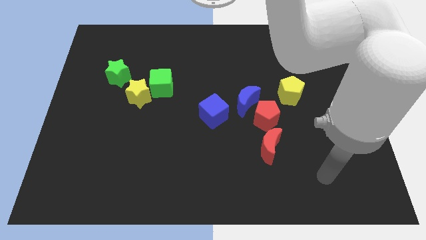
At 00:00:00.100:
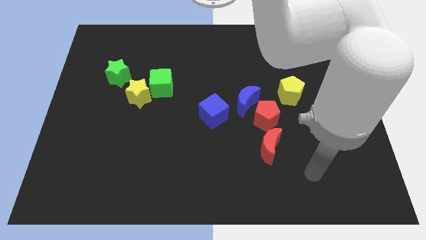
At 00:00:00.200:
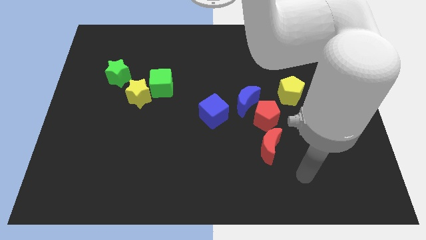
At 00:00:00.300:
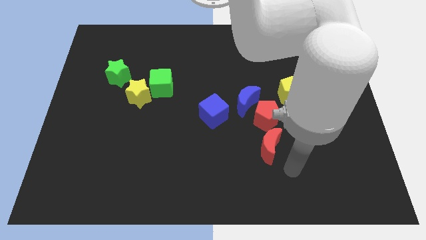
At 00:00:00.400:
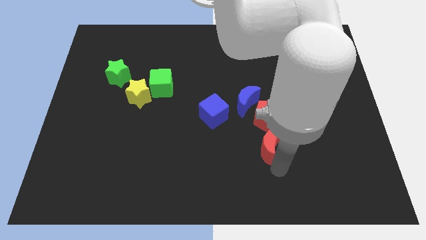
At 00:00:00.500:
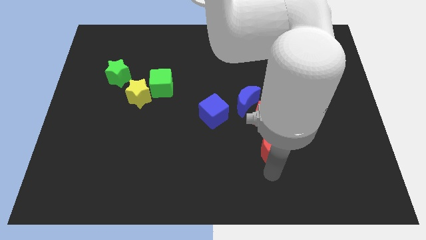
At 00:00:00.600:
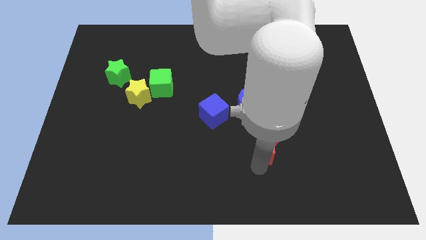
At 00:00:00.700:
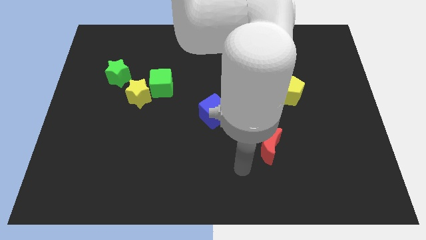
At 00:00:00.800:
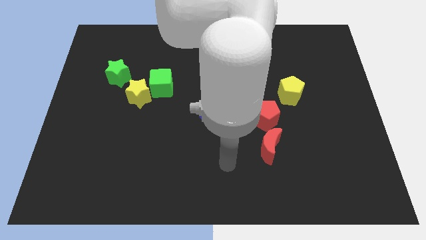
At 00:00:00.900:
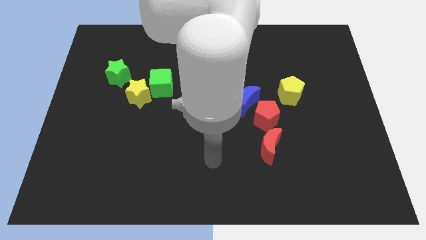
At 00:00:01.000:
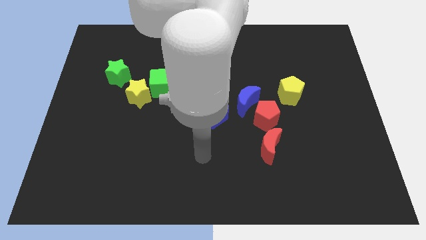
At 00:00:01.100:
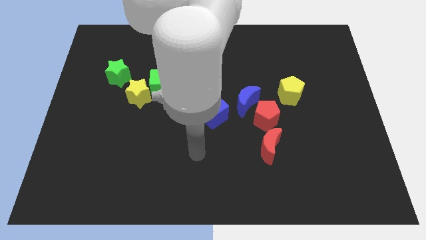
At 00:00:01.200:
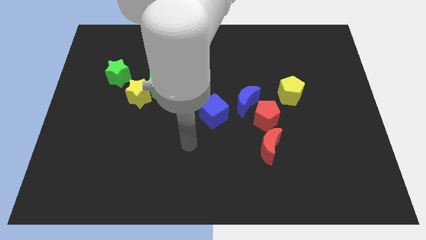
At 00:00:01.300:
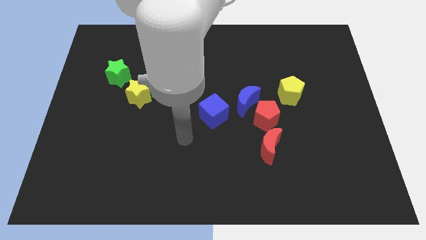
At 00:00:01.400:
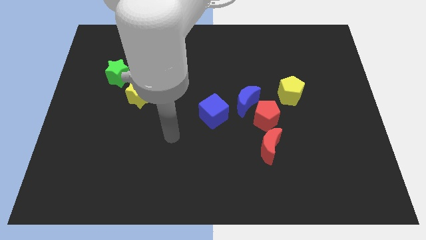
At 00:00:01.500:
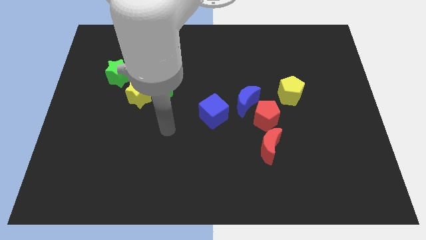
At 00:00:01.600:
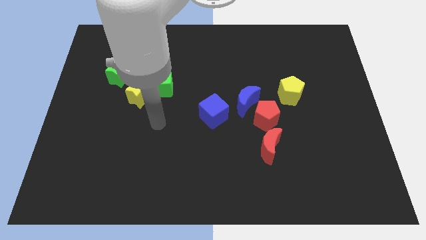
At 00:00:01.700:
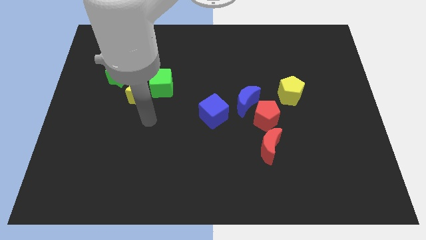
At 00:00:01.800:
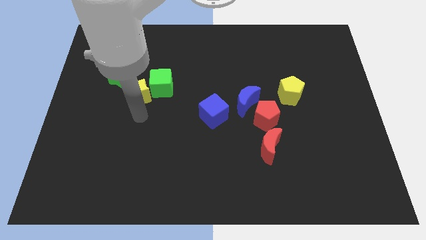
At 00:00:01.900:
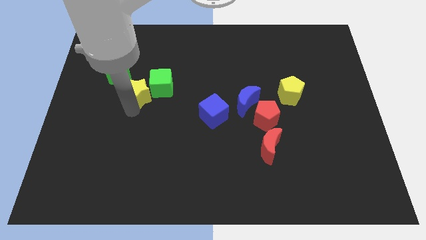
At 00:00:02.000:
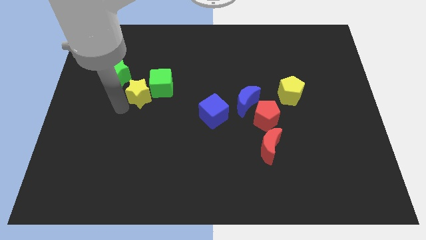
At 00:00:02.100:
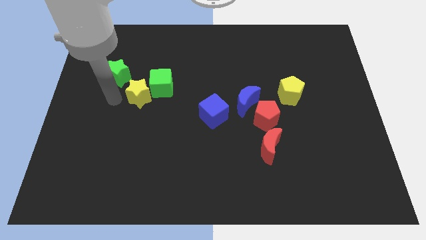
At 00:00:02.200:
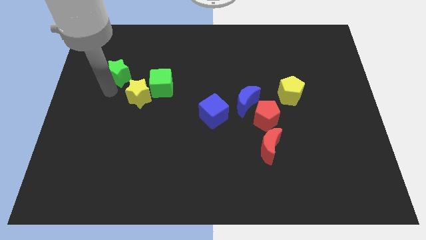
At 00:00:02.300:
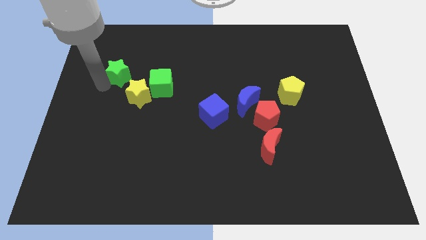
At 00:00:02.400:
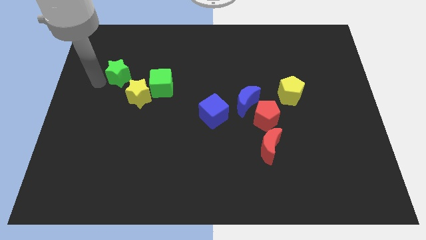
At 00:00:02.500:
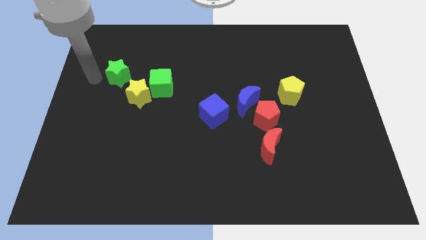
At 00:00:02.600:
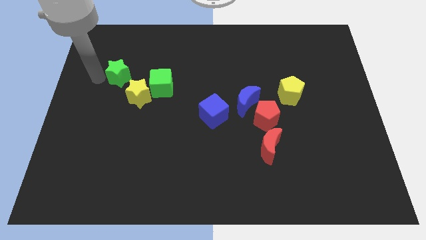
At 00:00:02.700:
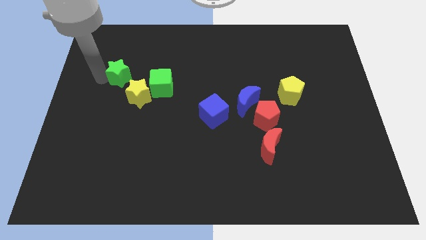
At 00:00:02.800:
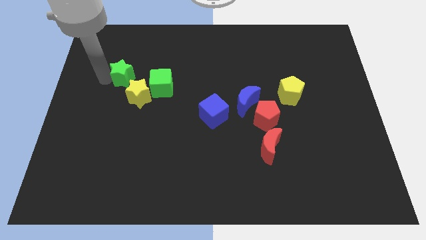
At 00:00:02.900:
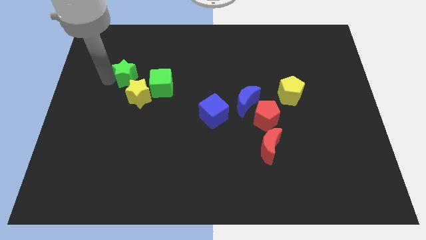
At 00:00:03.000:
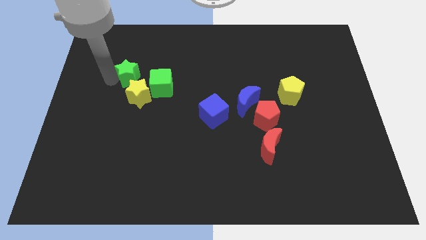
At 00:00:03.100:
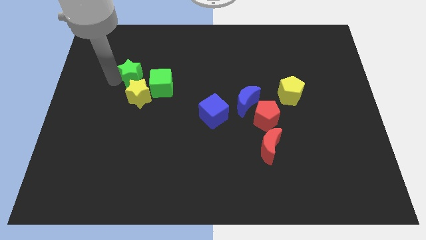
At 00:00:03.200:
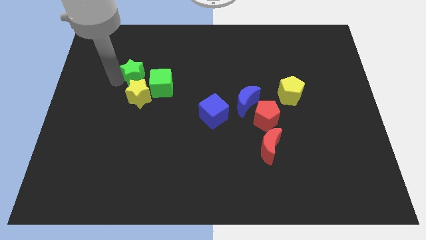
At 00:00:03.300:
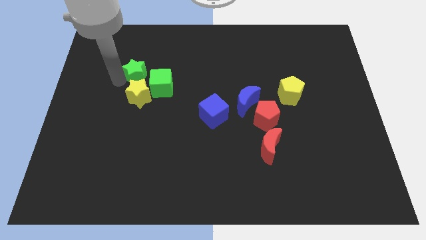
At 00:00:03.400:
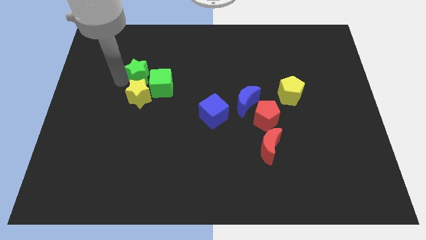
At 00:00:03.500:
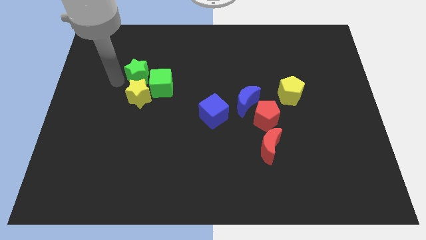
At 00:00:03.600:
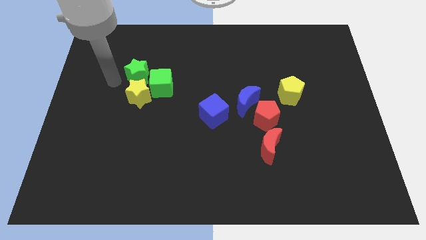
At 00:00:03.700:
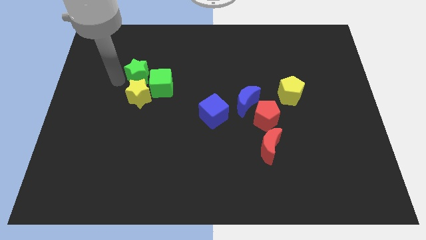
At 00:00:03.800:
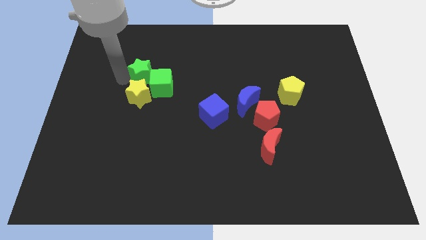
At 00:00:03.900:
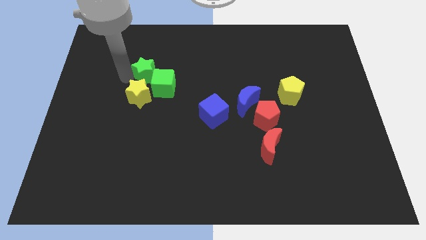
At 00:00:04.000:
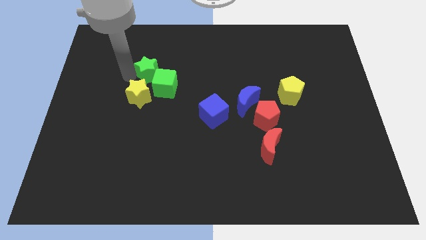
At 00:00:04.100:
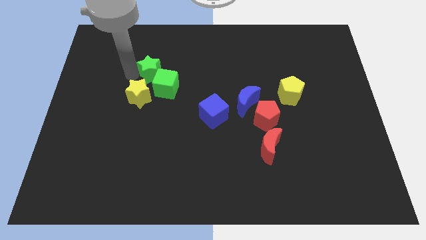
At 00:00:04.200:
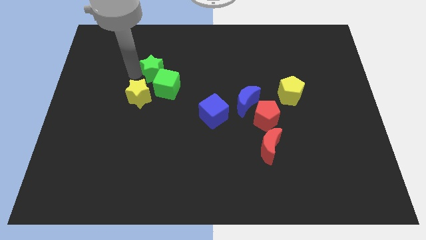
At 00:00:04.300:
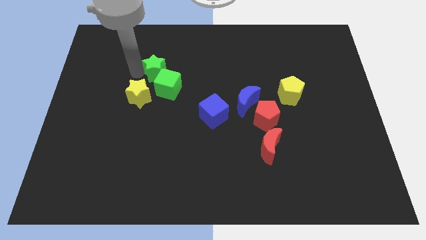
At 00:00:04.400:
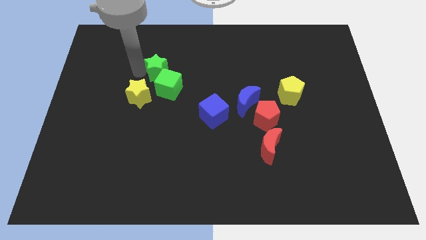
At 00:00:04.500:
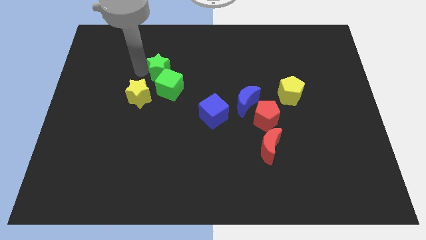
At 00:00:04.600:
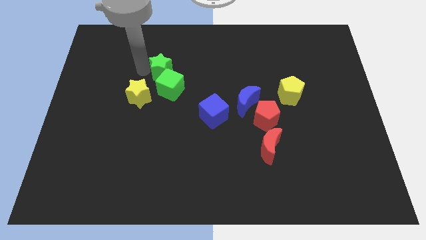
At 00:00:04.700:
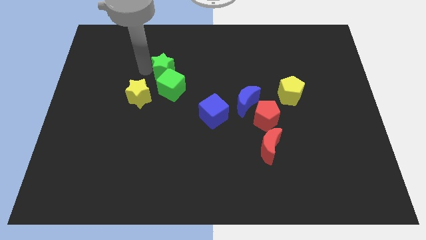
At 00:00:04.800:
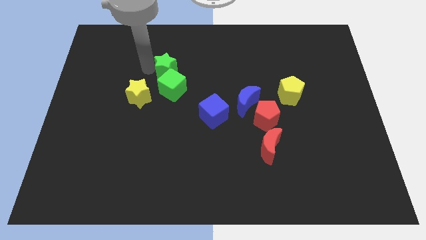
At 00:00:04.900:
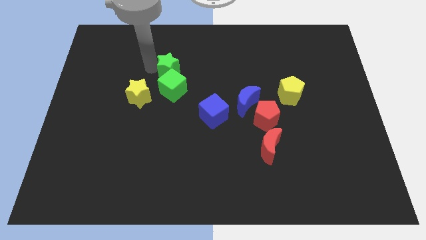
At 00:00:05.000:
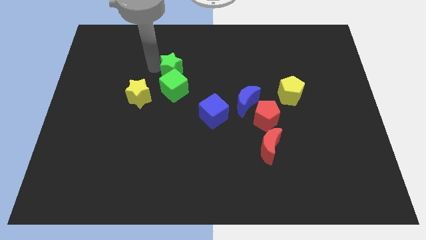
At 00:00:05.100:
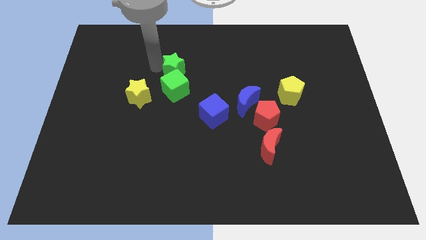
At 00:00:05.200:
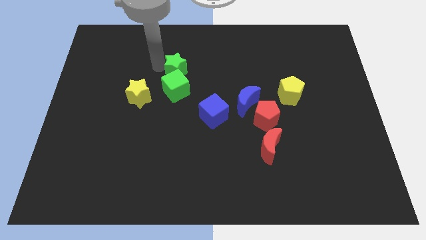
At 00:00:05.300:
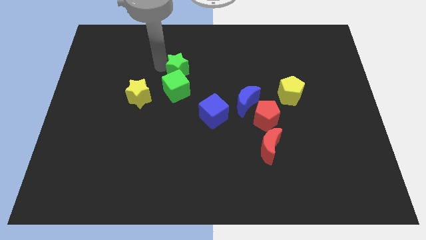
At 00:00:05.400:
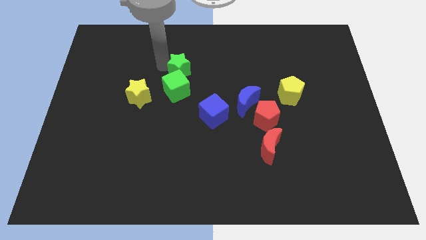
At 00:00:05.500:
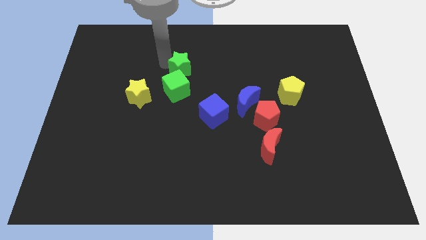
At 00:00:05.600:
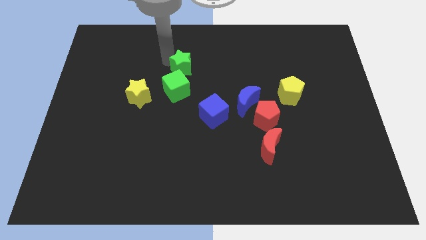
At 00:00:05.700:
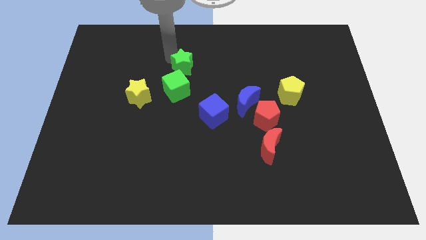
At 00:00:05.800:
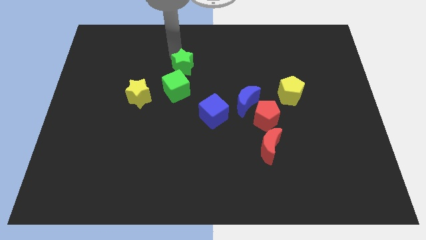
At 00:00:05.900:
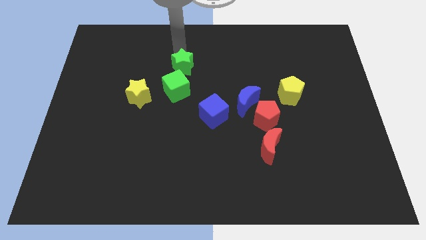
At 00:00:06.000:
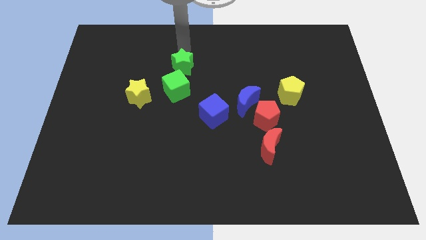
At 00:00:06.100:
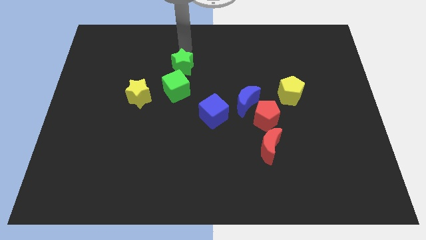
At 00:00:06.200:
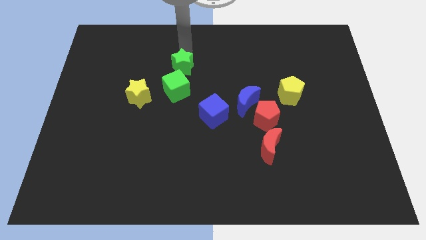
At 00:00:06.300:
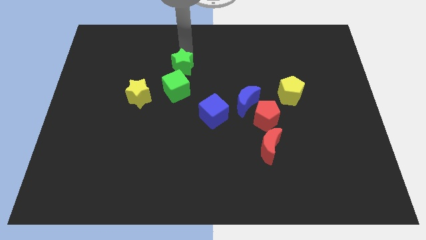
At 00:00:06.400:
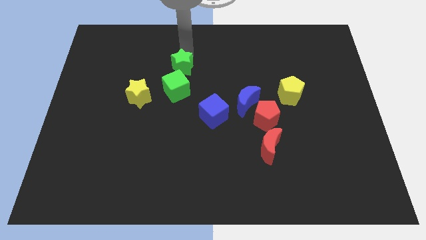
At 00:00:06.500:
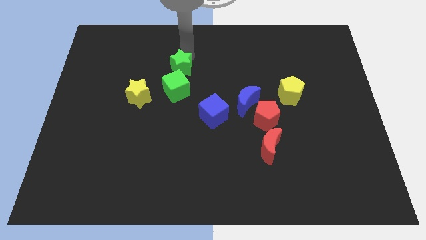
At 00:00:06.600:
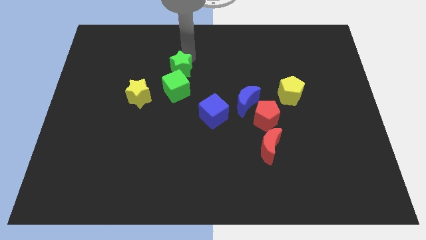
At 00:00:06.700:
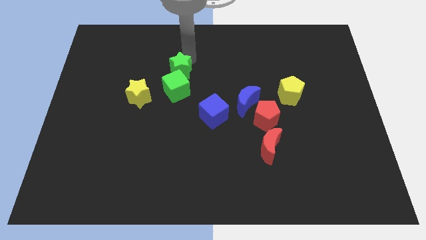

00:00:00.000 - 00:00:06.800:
put the green star to the center
